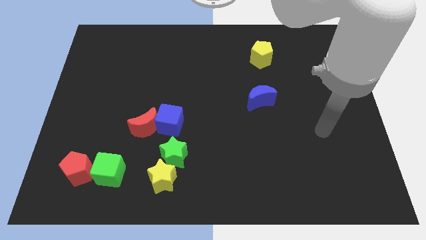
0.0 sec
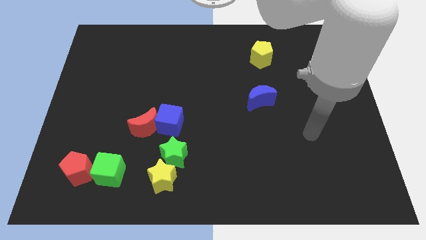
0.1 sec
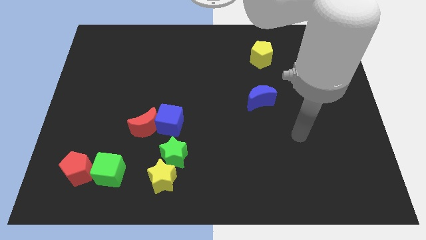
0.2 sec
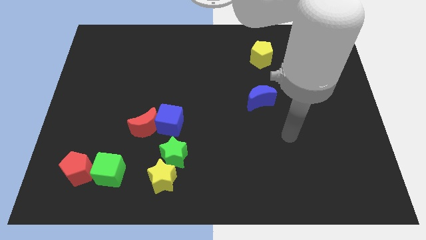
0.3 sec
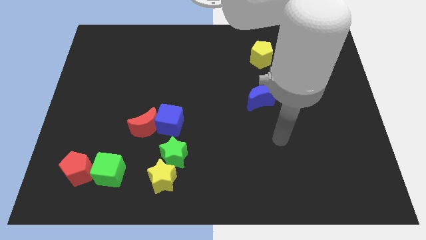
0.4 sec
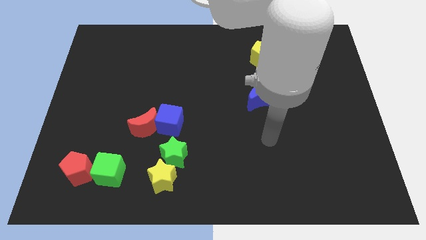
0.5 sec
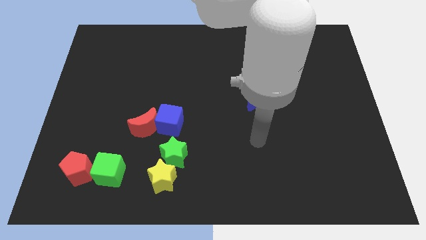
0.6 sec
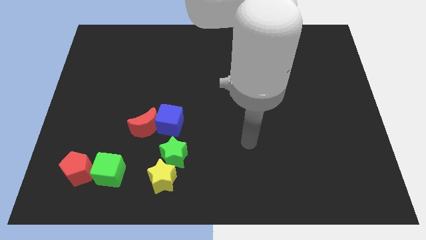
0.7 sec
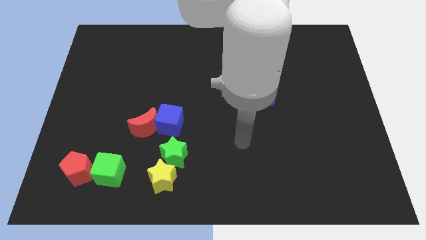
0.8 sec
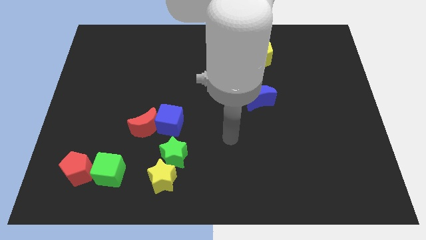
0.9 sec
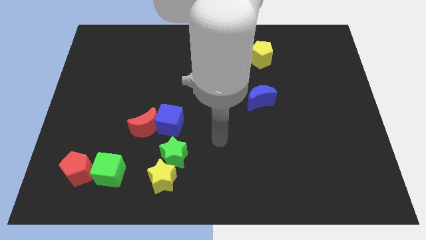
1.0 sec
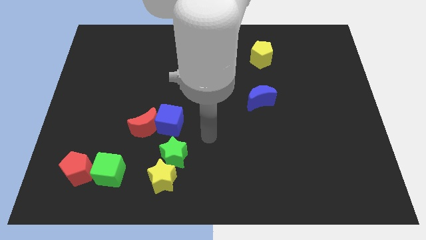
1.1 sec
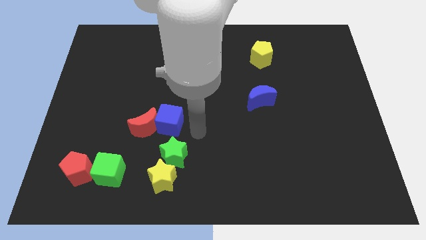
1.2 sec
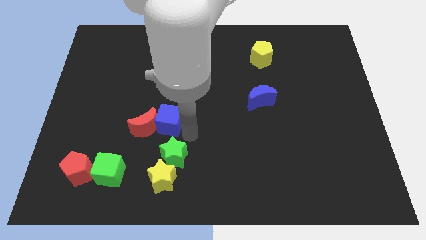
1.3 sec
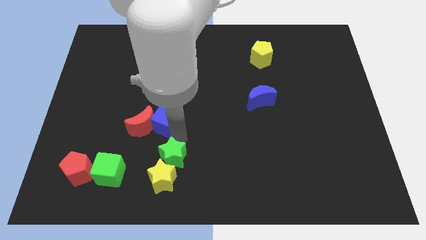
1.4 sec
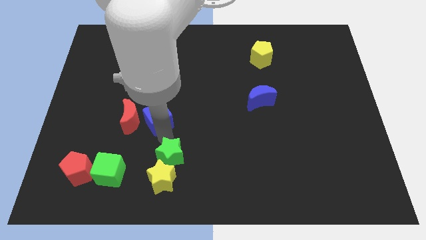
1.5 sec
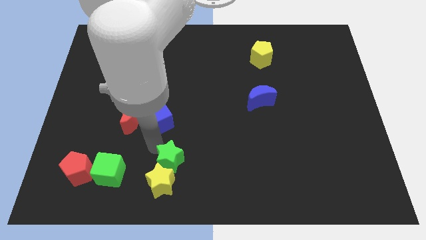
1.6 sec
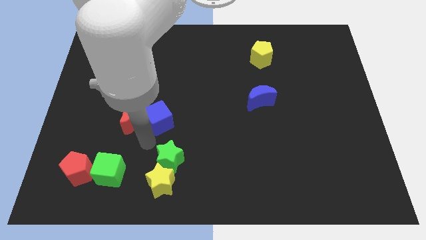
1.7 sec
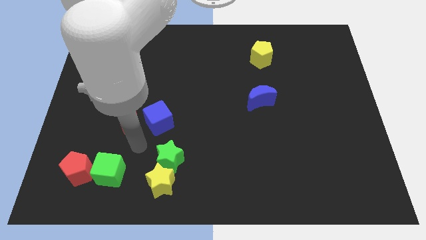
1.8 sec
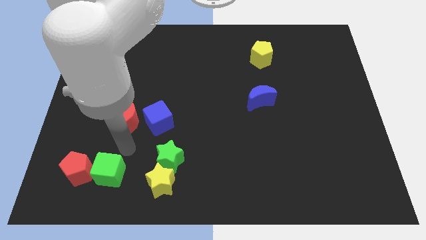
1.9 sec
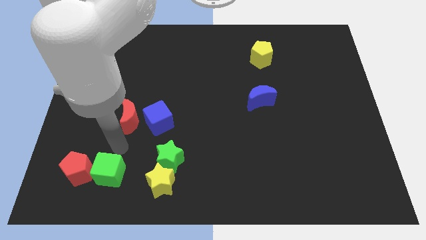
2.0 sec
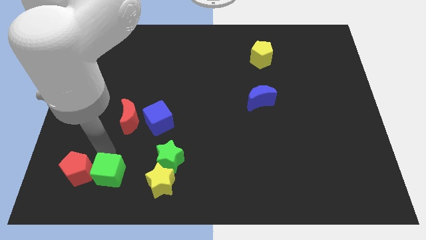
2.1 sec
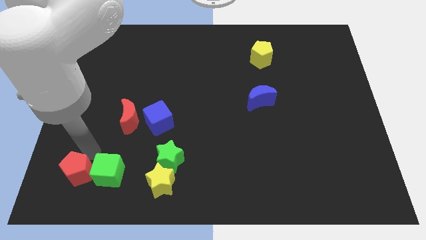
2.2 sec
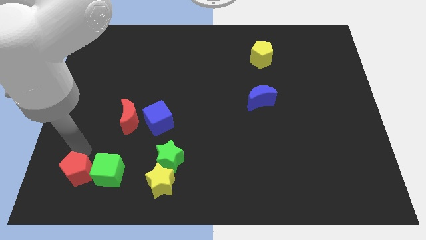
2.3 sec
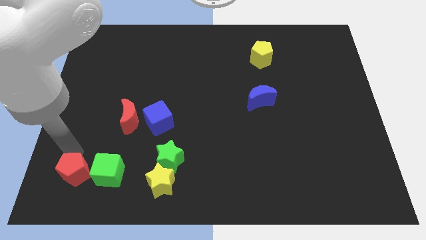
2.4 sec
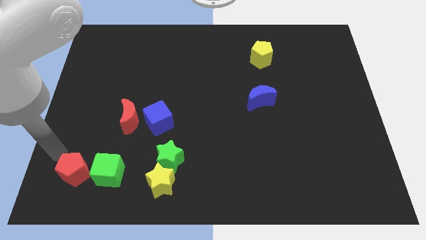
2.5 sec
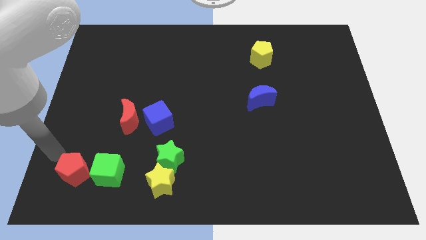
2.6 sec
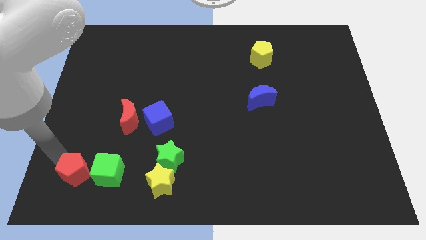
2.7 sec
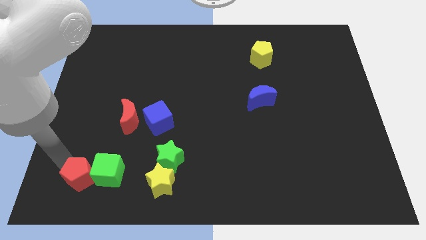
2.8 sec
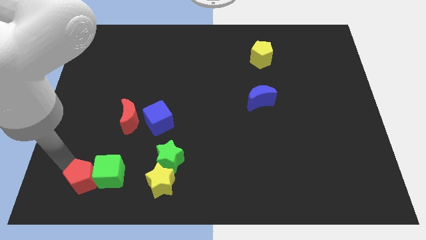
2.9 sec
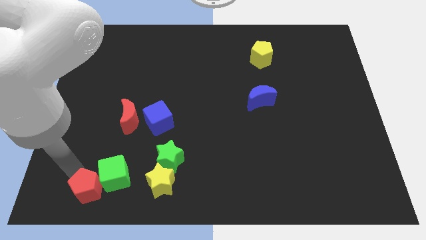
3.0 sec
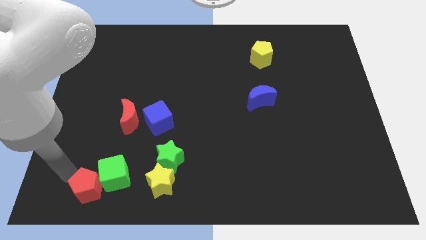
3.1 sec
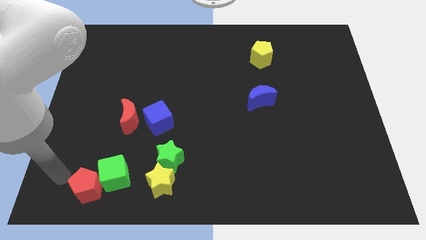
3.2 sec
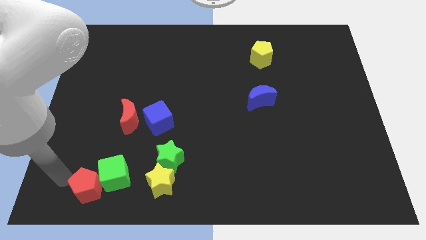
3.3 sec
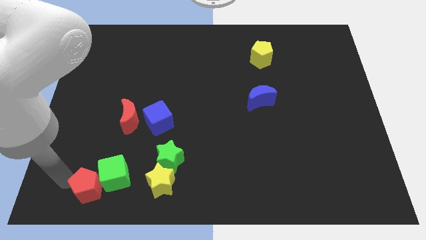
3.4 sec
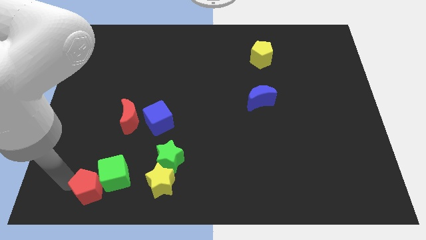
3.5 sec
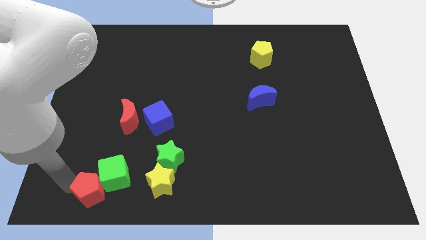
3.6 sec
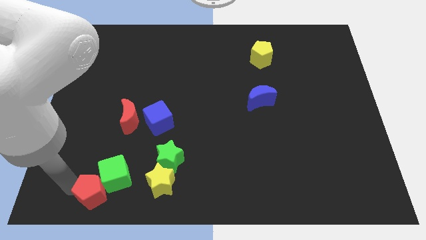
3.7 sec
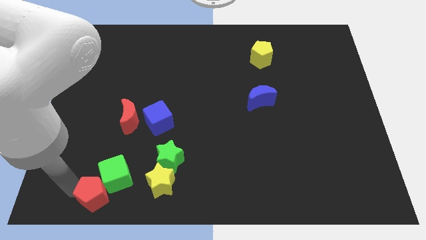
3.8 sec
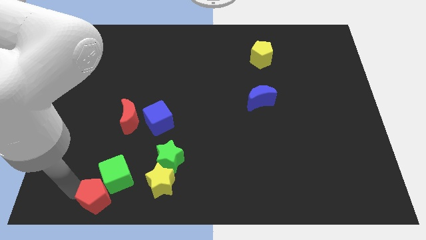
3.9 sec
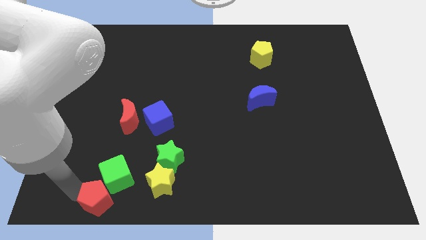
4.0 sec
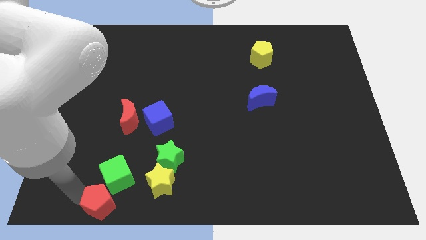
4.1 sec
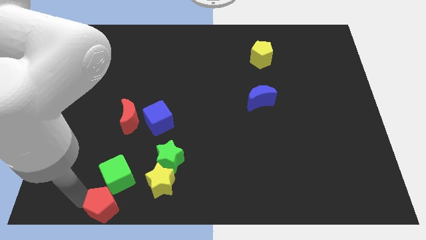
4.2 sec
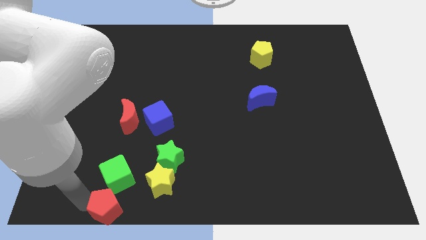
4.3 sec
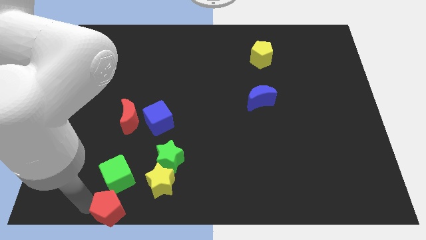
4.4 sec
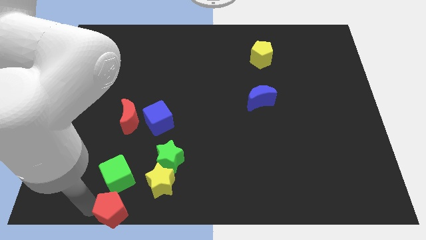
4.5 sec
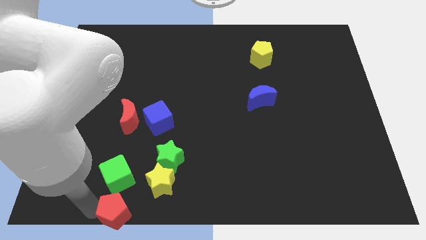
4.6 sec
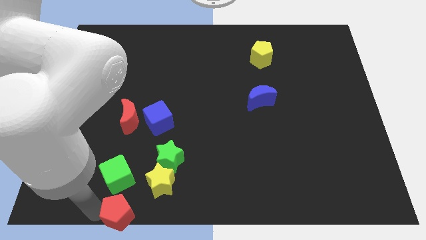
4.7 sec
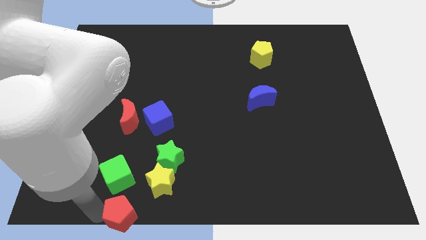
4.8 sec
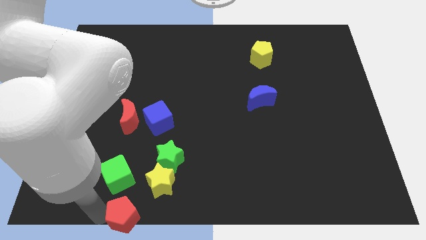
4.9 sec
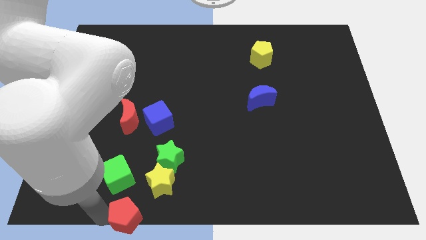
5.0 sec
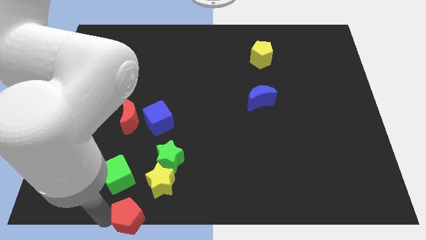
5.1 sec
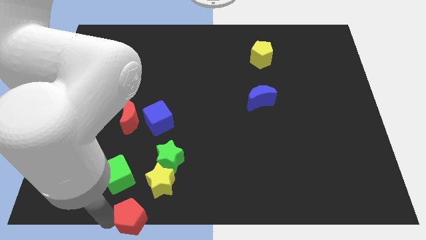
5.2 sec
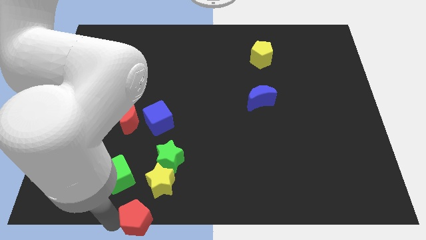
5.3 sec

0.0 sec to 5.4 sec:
push the red pentagon to the bottom side

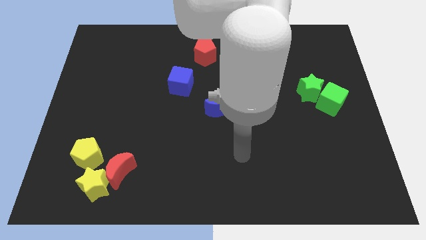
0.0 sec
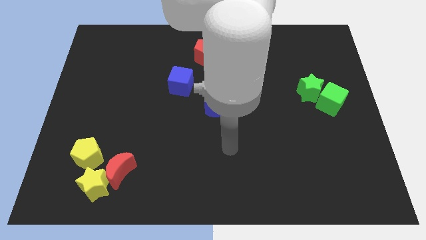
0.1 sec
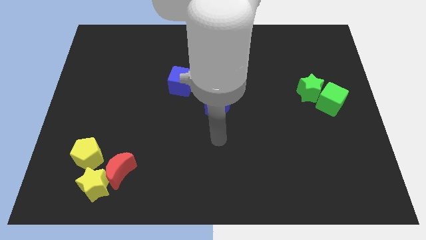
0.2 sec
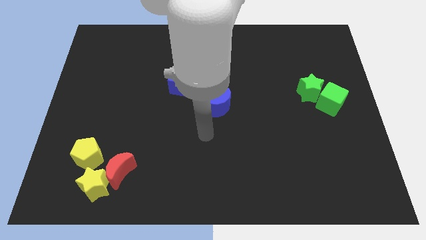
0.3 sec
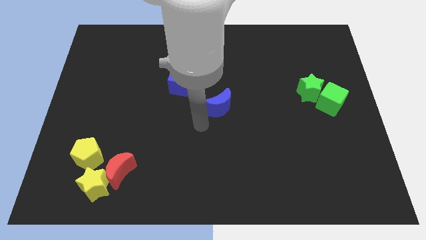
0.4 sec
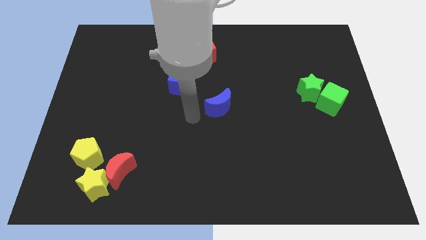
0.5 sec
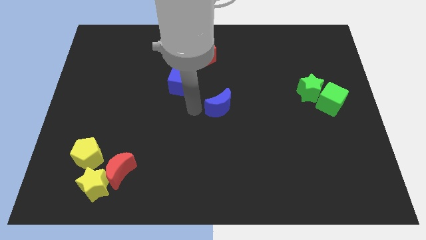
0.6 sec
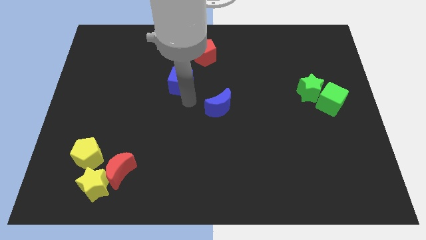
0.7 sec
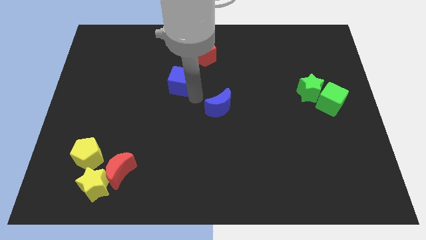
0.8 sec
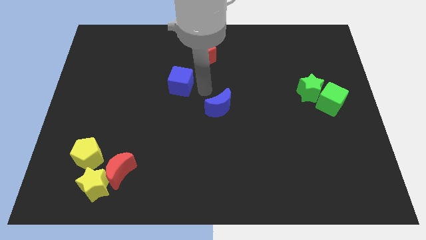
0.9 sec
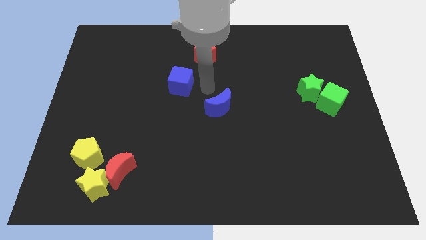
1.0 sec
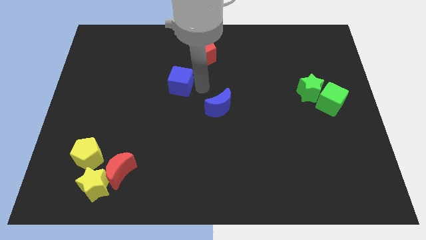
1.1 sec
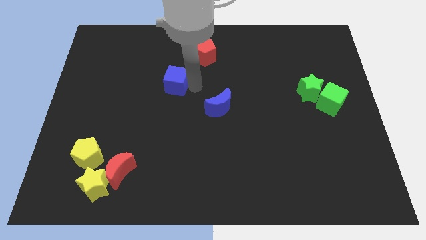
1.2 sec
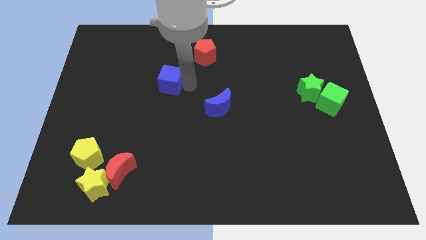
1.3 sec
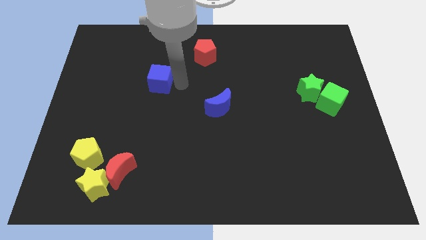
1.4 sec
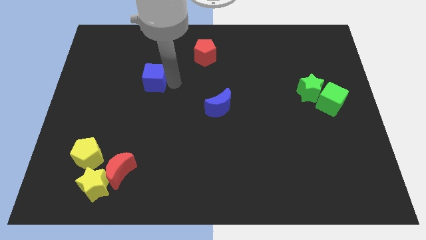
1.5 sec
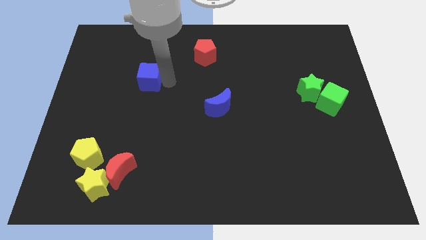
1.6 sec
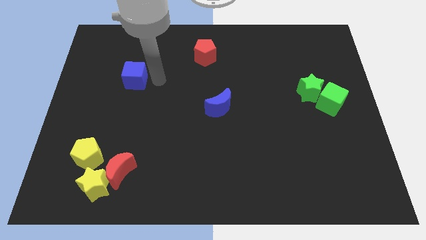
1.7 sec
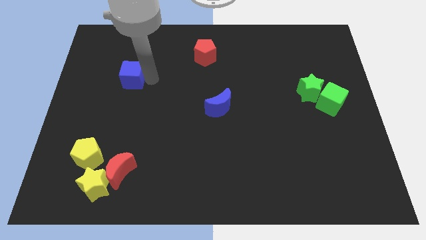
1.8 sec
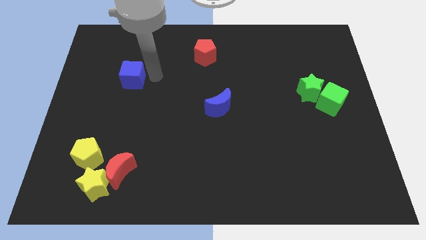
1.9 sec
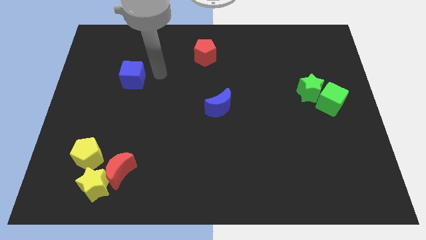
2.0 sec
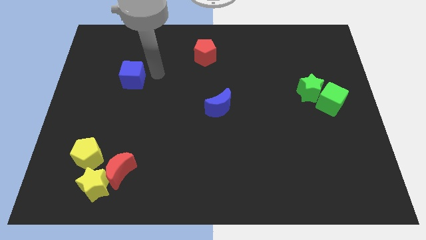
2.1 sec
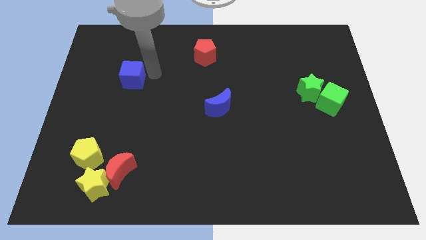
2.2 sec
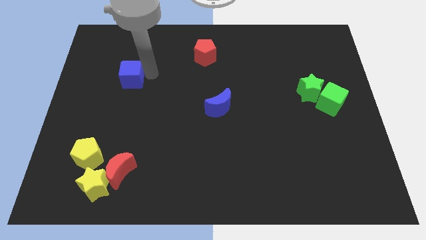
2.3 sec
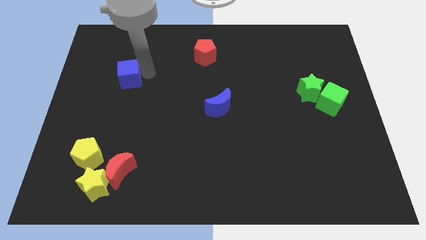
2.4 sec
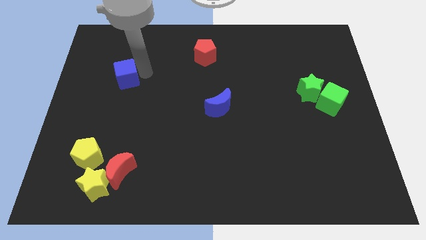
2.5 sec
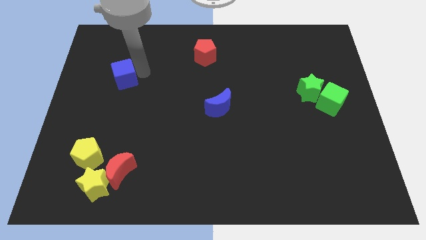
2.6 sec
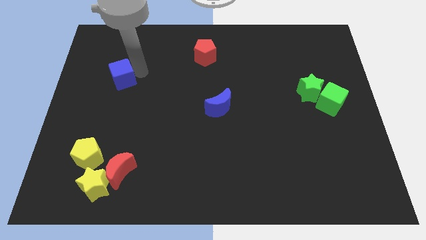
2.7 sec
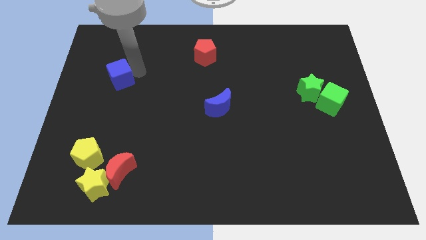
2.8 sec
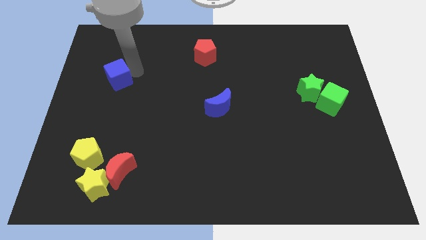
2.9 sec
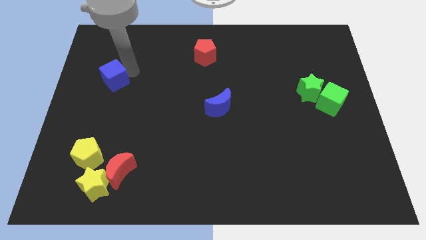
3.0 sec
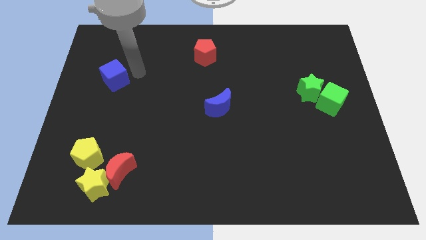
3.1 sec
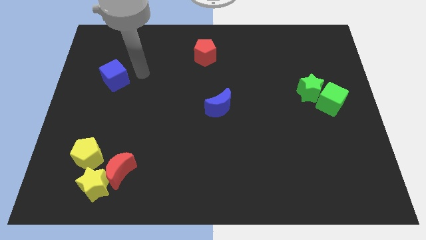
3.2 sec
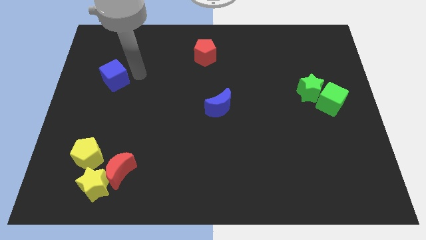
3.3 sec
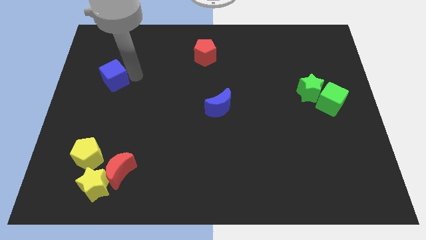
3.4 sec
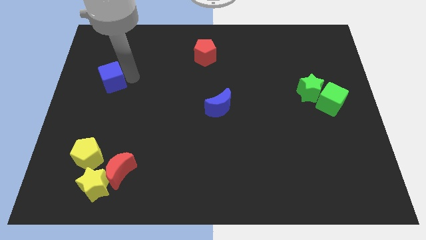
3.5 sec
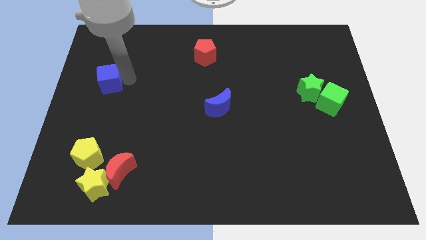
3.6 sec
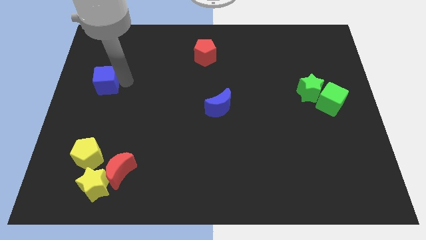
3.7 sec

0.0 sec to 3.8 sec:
slide the blue cube to the left side of the board
